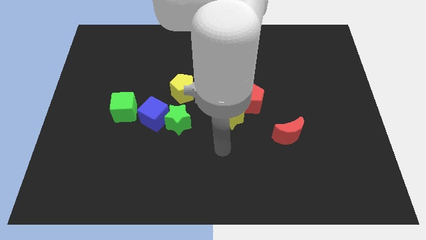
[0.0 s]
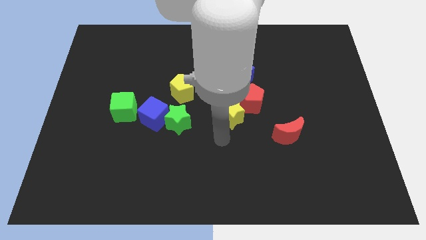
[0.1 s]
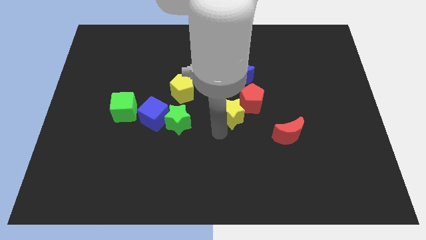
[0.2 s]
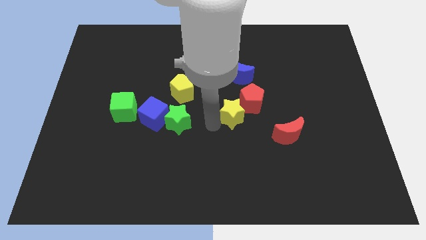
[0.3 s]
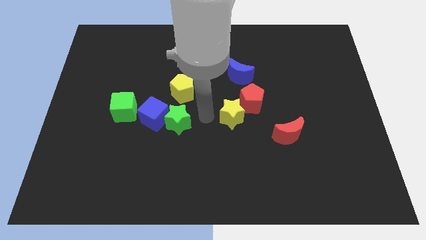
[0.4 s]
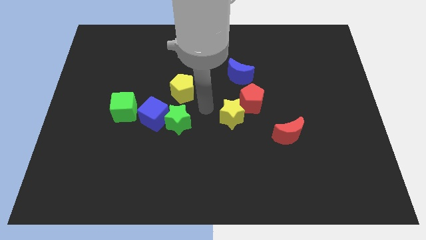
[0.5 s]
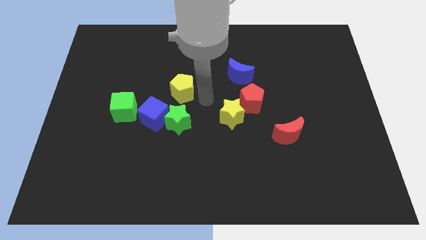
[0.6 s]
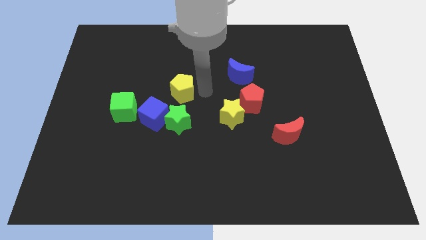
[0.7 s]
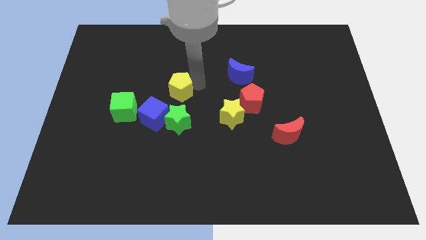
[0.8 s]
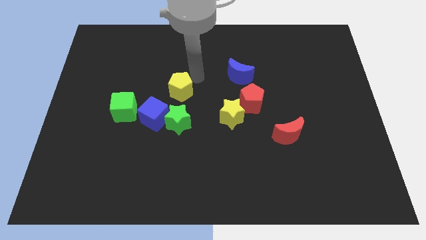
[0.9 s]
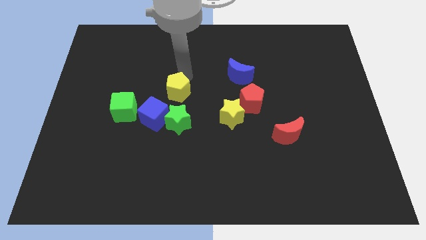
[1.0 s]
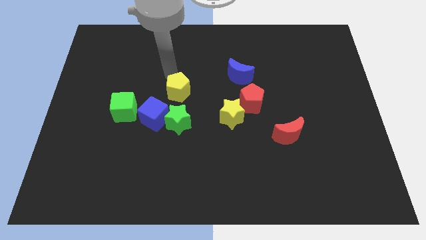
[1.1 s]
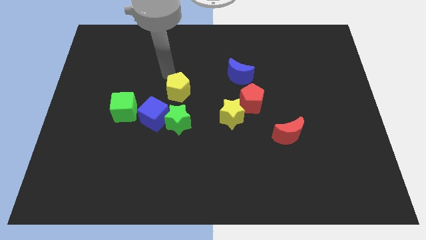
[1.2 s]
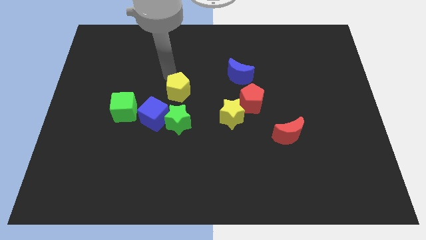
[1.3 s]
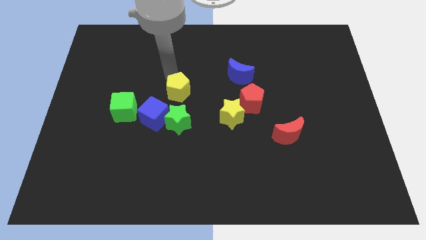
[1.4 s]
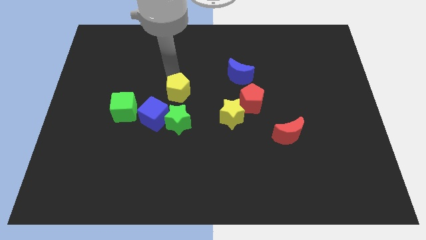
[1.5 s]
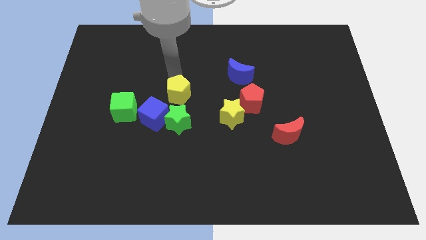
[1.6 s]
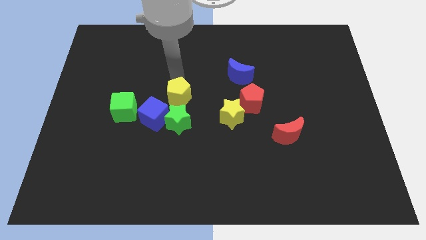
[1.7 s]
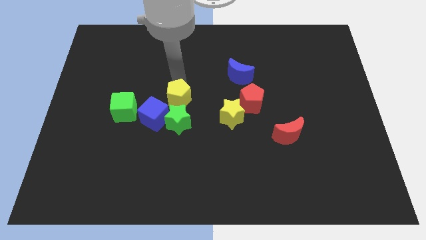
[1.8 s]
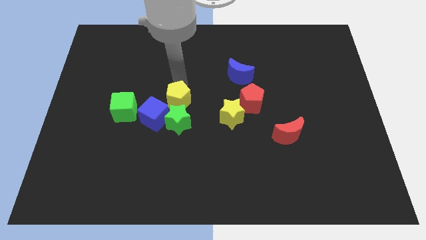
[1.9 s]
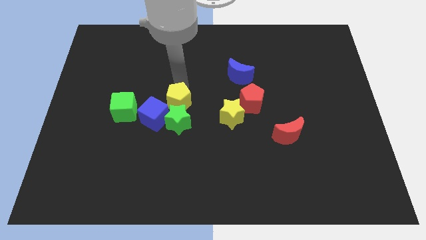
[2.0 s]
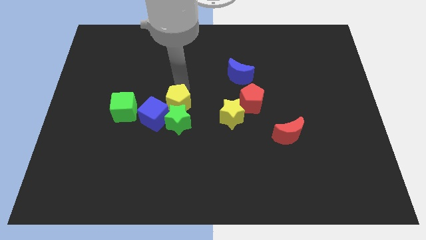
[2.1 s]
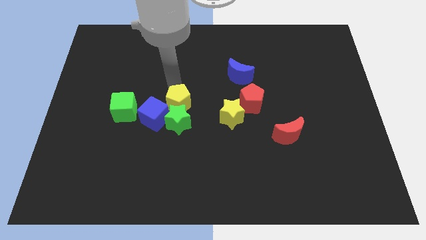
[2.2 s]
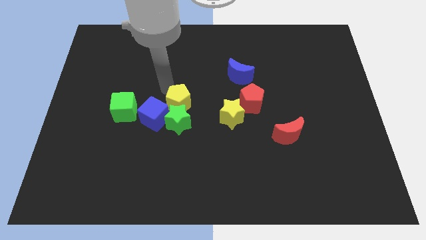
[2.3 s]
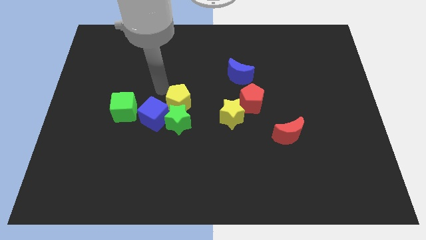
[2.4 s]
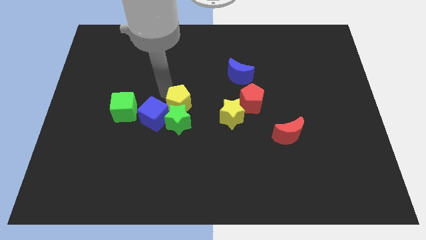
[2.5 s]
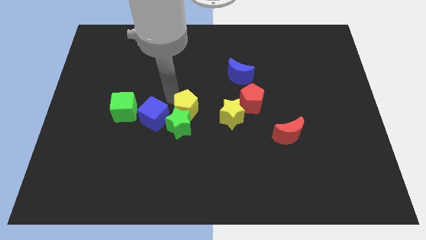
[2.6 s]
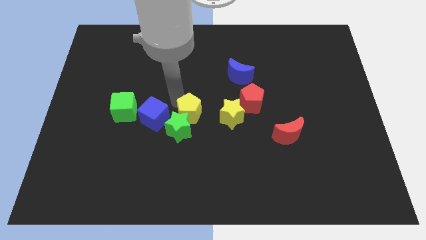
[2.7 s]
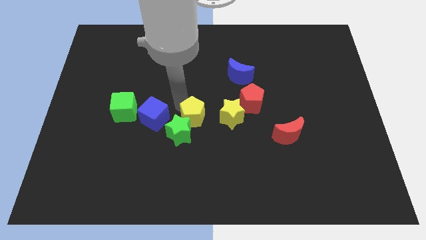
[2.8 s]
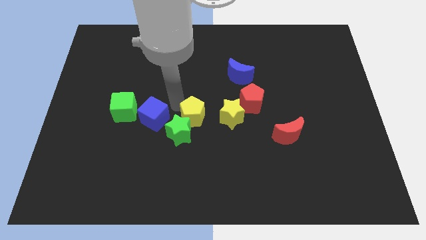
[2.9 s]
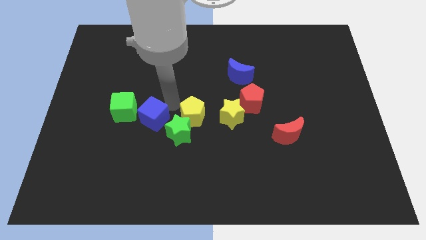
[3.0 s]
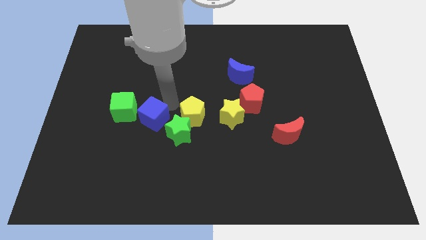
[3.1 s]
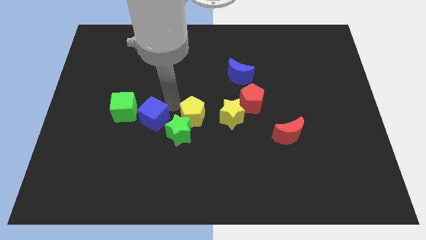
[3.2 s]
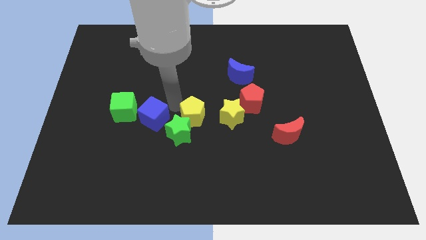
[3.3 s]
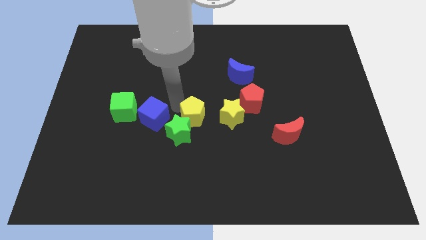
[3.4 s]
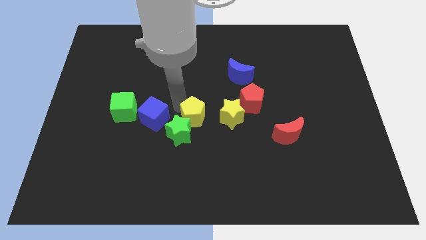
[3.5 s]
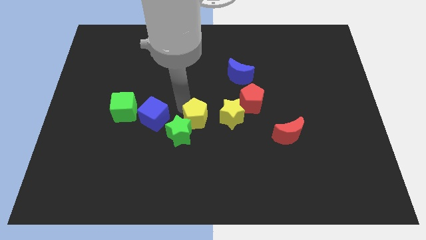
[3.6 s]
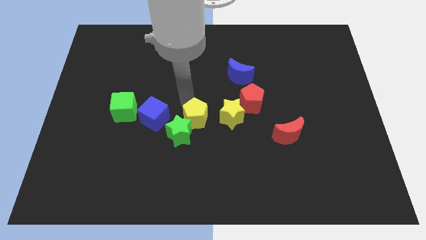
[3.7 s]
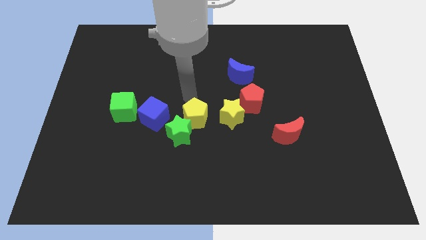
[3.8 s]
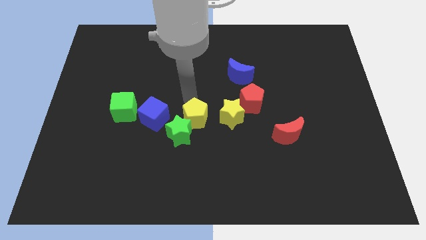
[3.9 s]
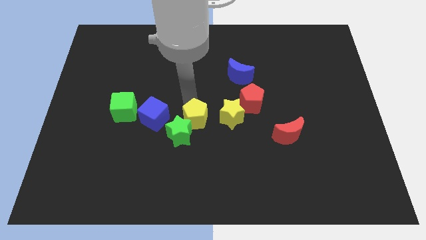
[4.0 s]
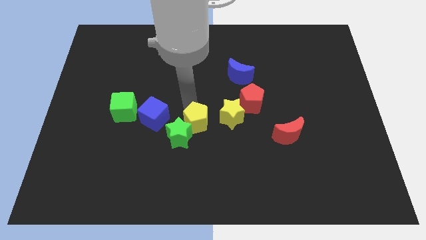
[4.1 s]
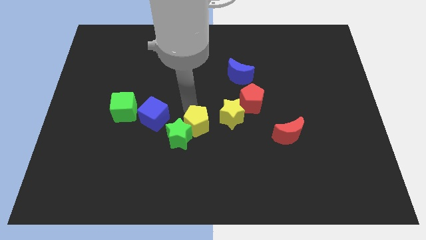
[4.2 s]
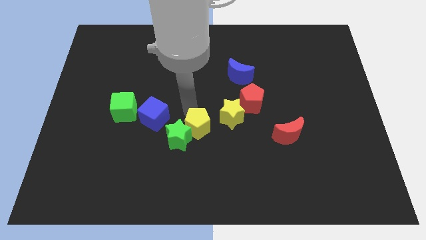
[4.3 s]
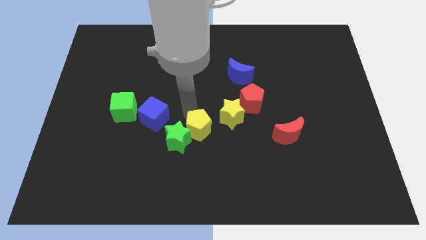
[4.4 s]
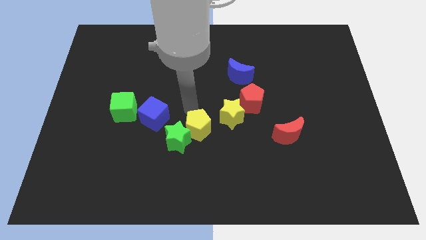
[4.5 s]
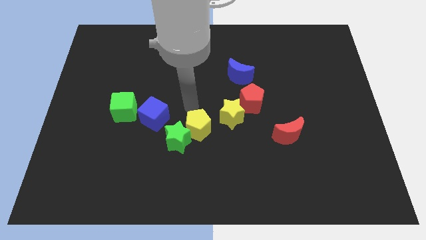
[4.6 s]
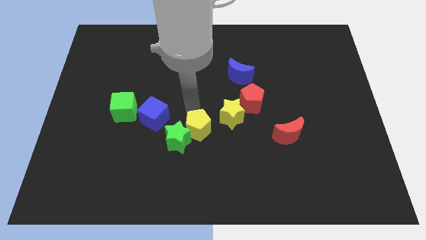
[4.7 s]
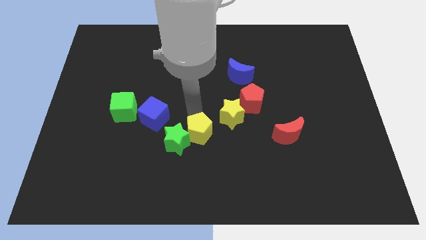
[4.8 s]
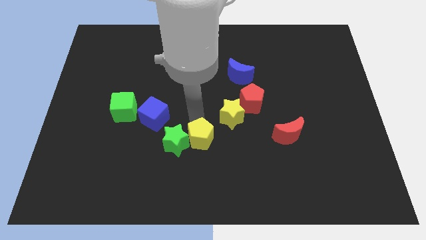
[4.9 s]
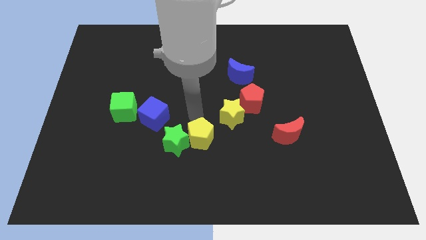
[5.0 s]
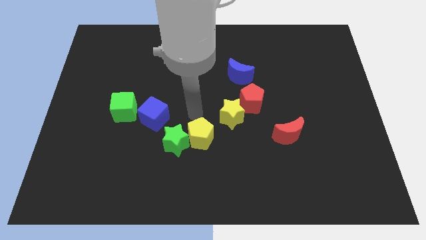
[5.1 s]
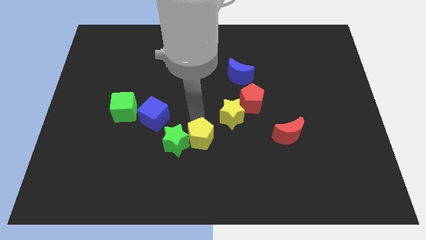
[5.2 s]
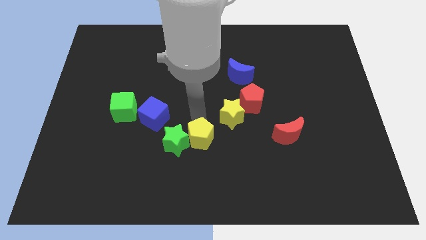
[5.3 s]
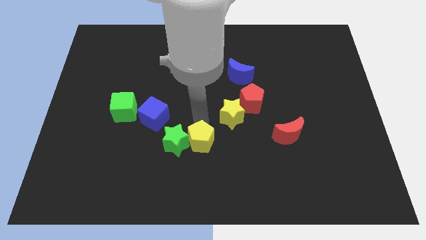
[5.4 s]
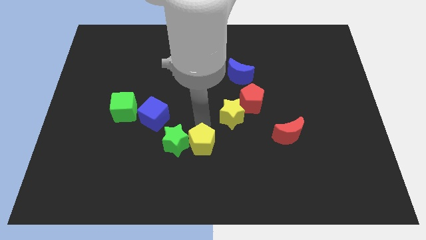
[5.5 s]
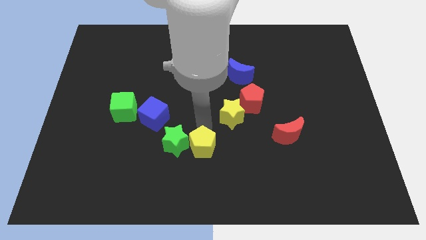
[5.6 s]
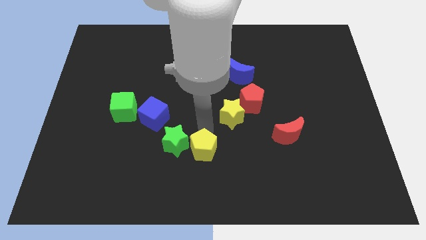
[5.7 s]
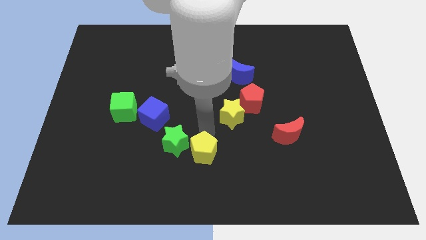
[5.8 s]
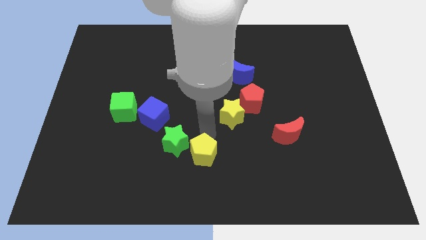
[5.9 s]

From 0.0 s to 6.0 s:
move the yellow pentagon to the bottom

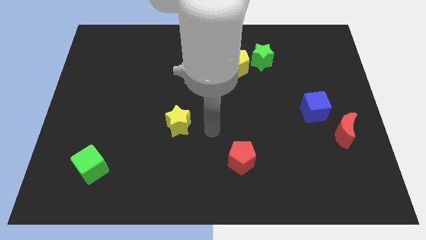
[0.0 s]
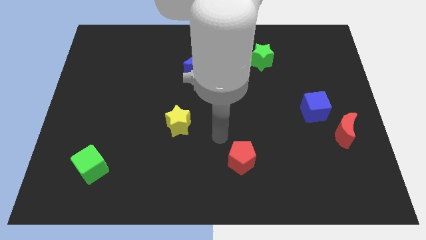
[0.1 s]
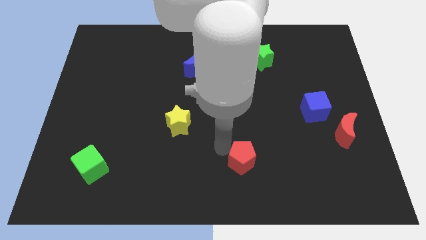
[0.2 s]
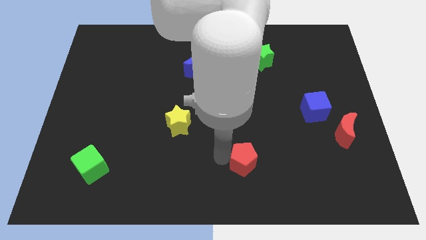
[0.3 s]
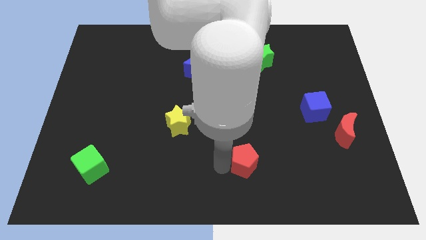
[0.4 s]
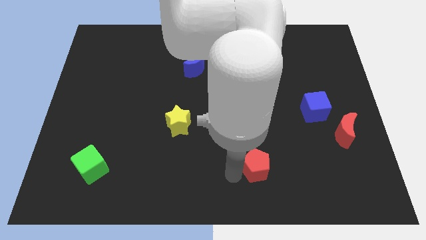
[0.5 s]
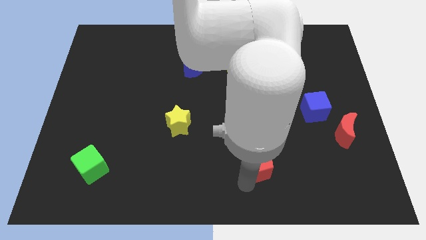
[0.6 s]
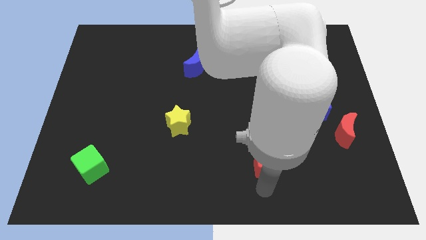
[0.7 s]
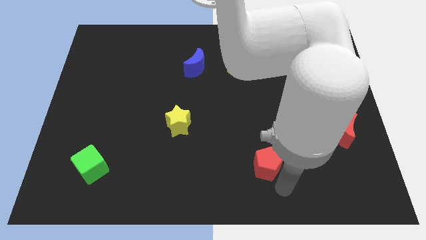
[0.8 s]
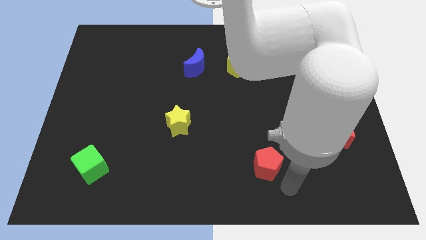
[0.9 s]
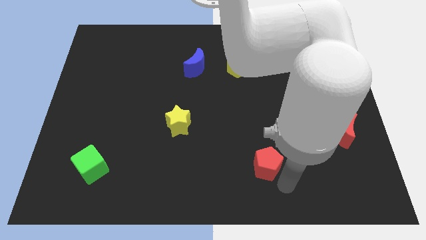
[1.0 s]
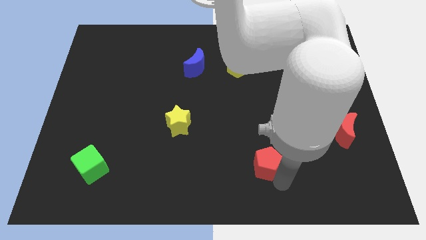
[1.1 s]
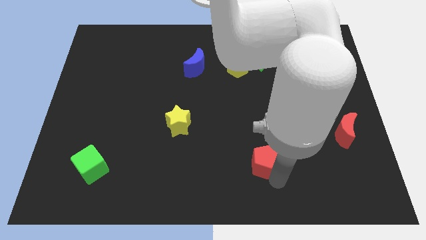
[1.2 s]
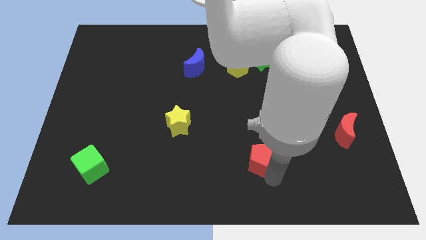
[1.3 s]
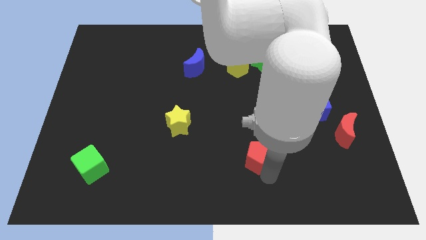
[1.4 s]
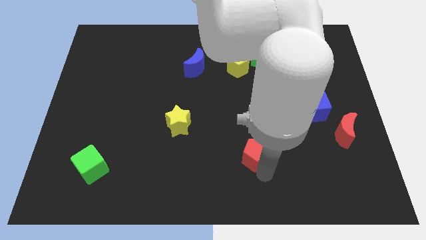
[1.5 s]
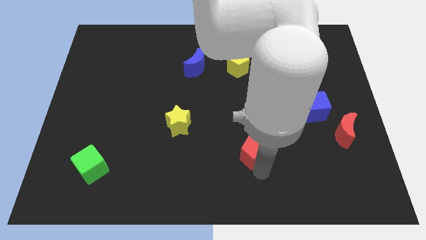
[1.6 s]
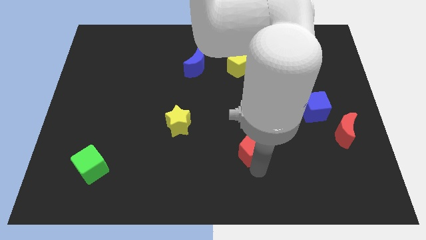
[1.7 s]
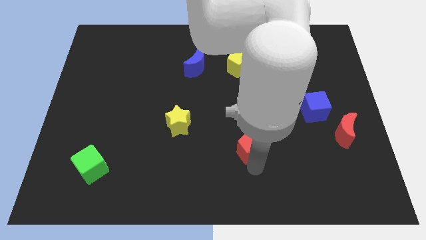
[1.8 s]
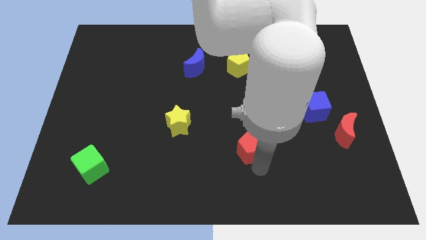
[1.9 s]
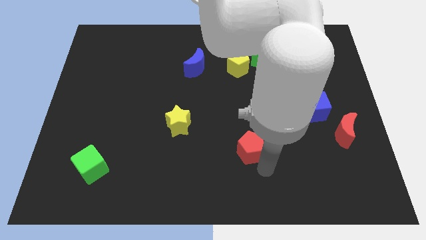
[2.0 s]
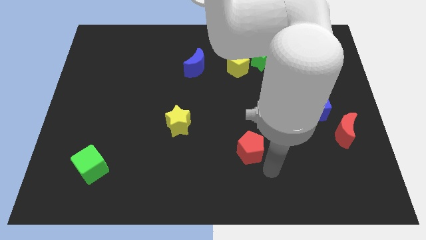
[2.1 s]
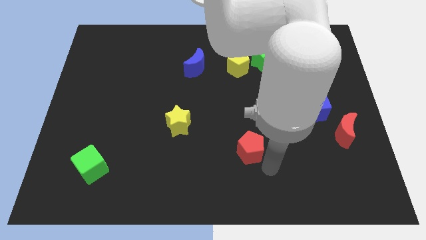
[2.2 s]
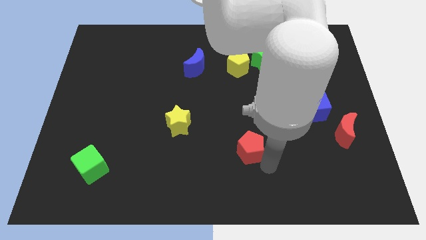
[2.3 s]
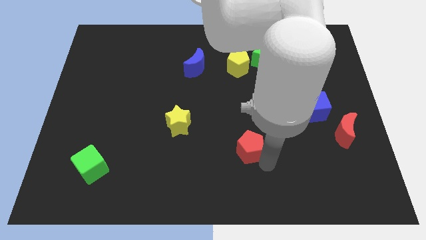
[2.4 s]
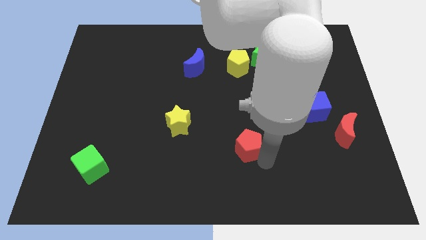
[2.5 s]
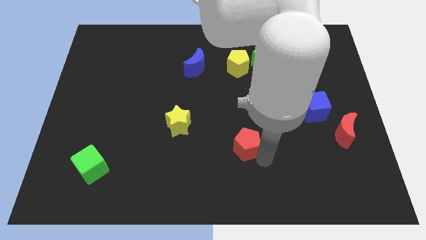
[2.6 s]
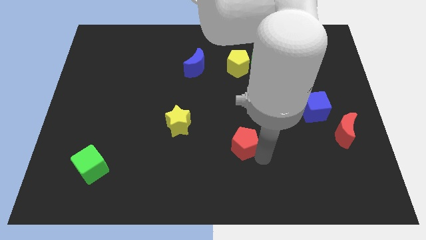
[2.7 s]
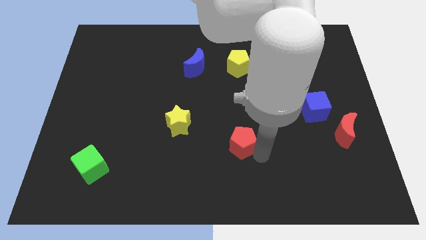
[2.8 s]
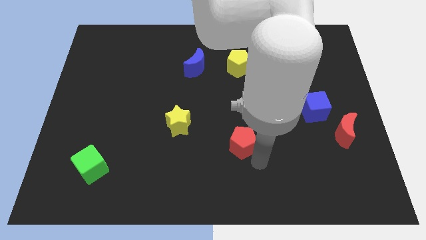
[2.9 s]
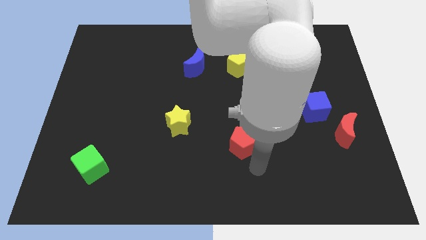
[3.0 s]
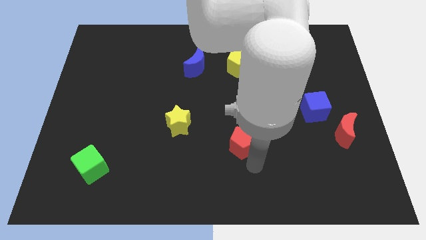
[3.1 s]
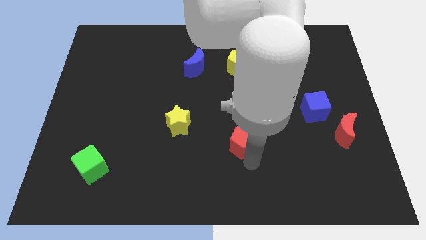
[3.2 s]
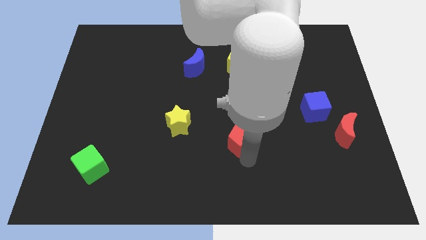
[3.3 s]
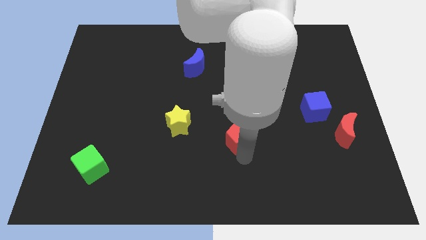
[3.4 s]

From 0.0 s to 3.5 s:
move the red pentagon to the middle of the board
